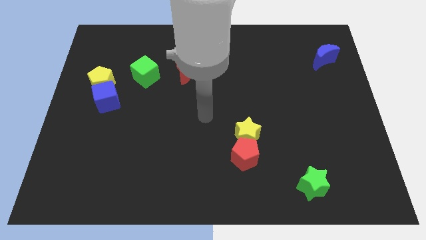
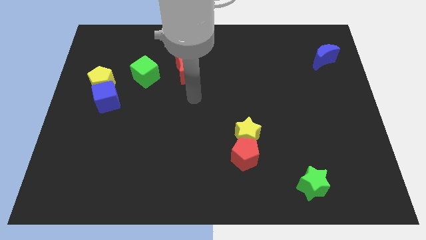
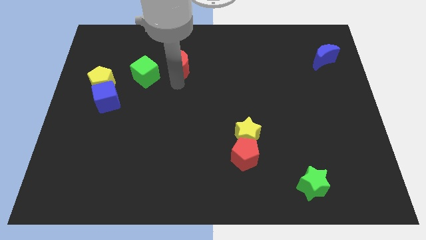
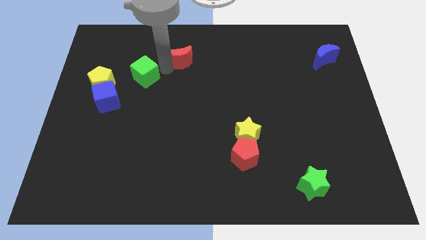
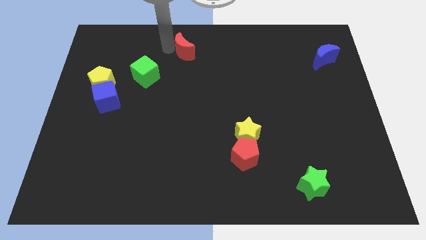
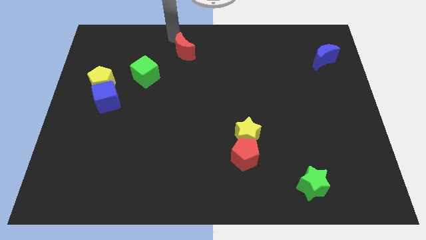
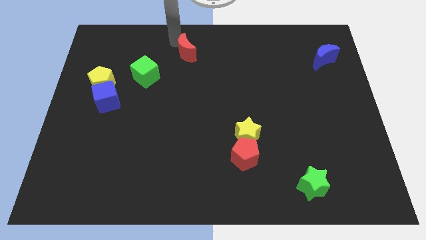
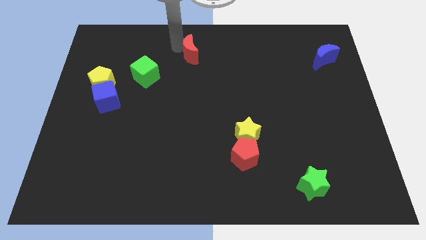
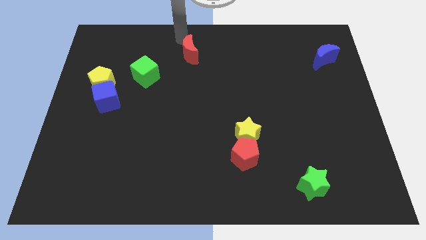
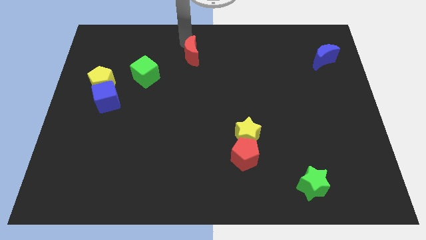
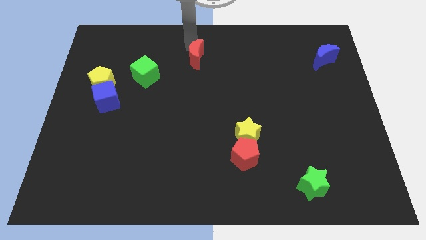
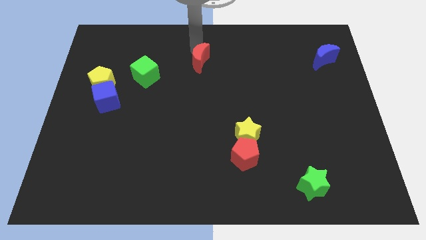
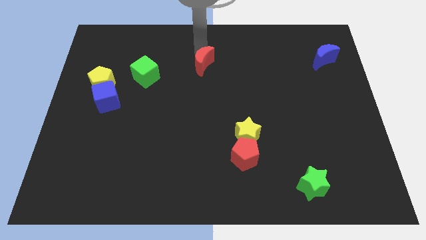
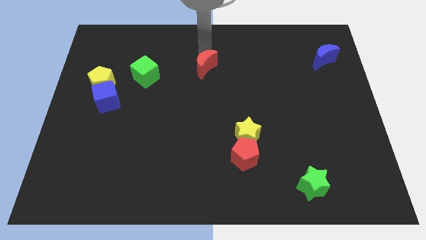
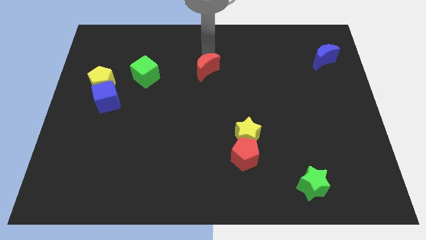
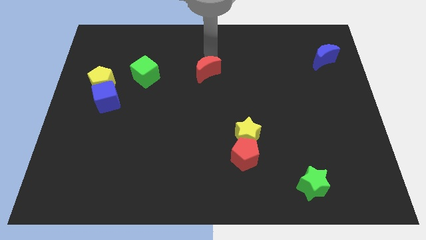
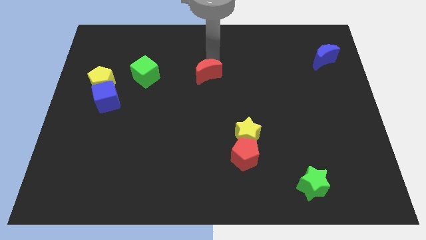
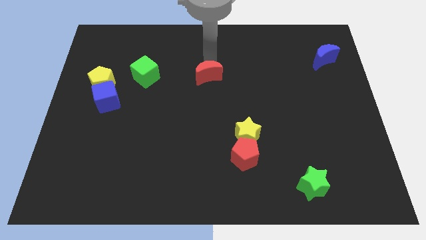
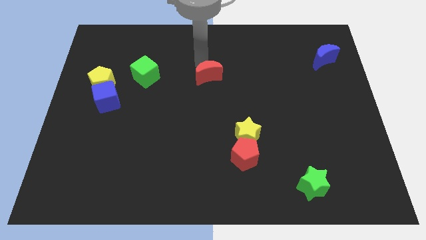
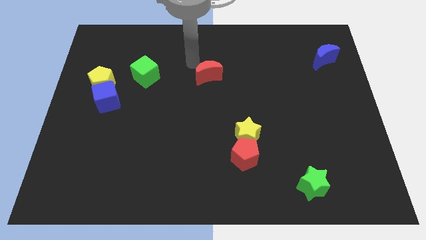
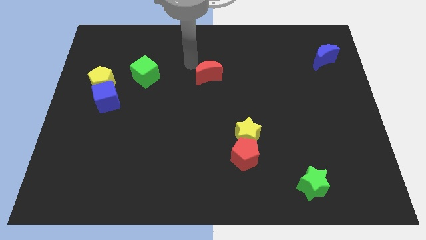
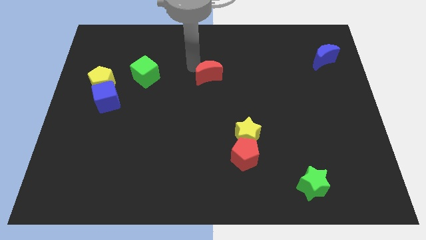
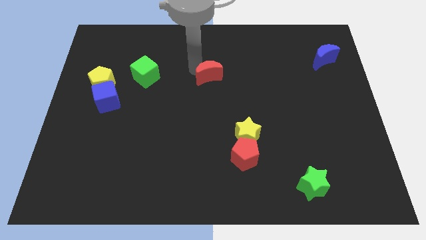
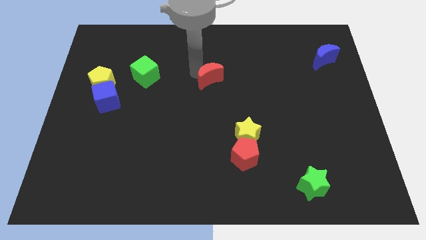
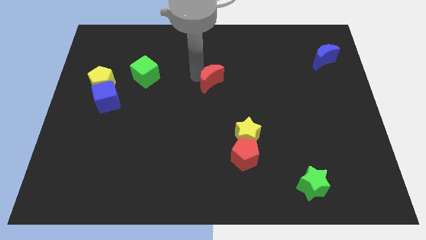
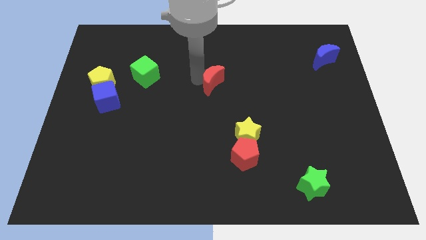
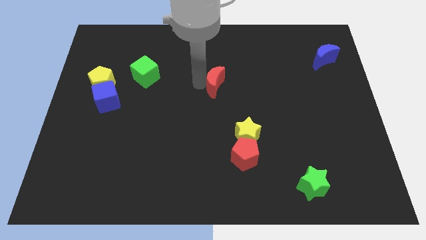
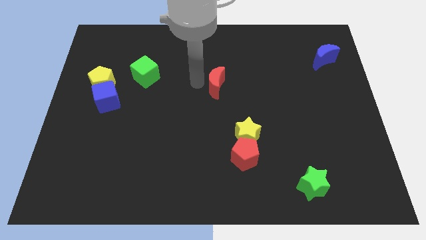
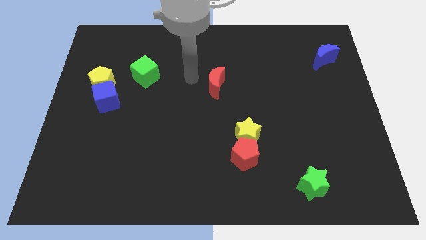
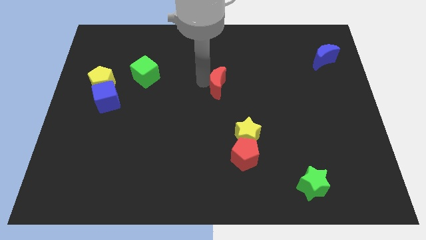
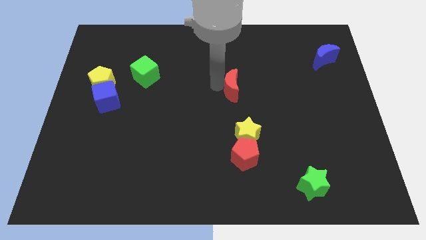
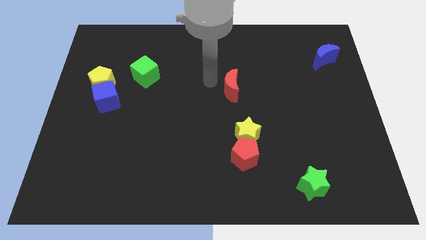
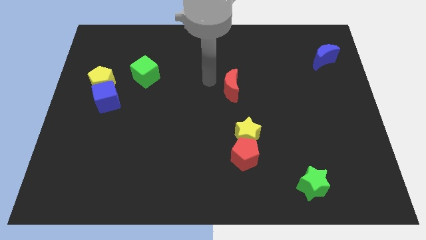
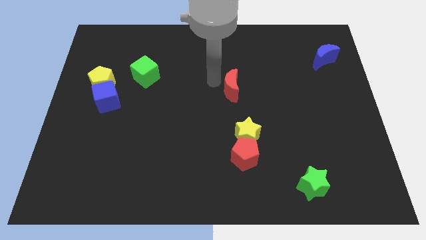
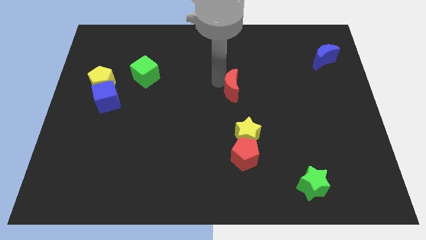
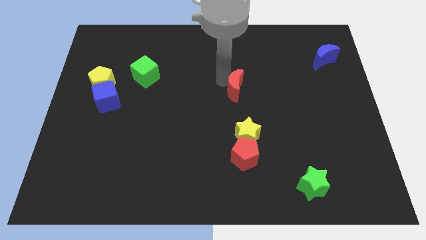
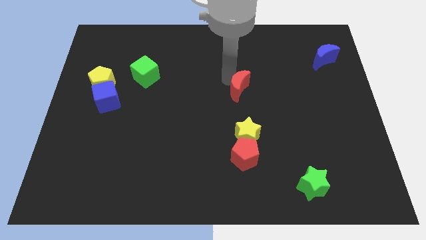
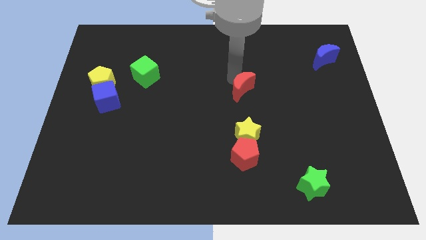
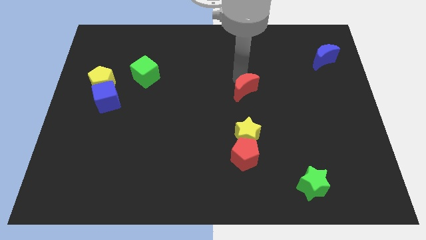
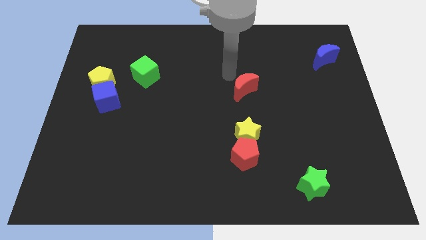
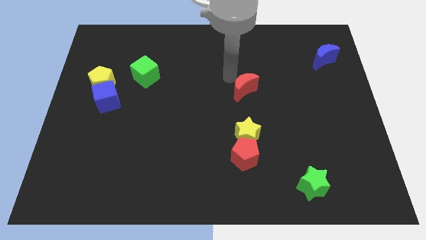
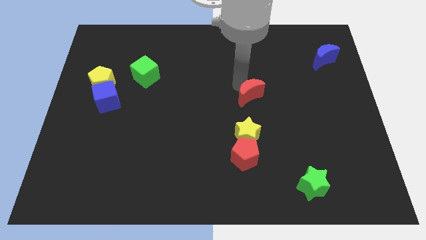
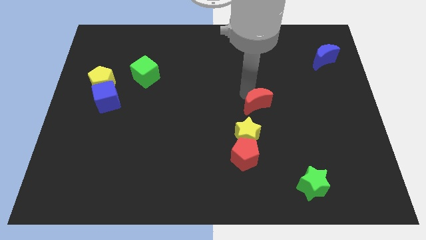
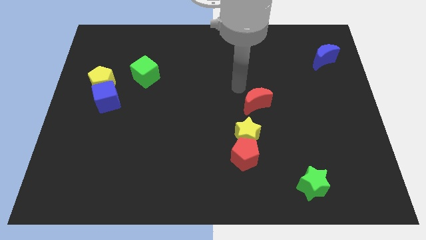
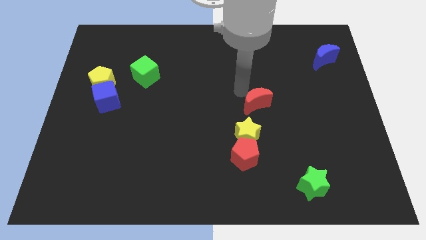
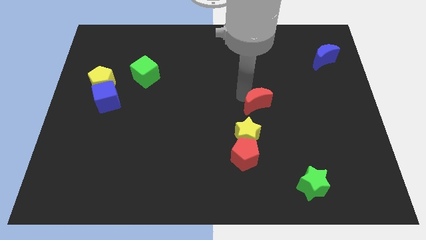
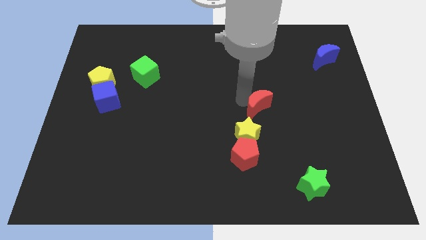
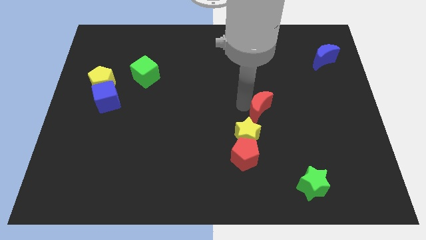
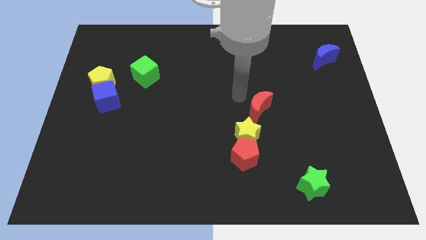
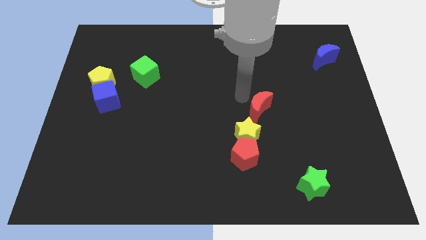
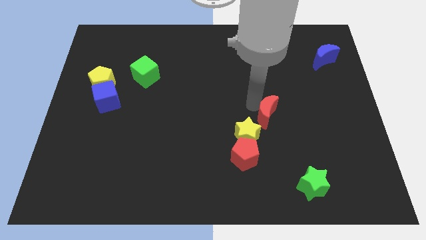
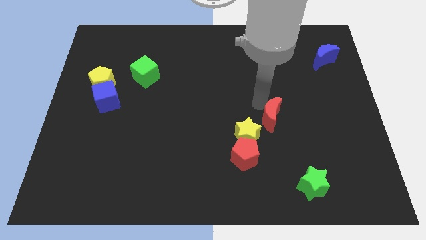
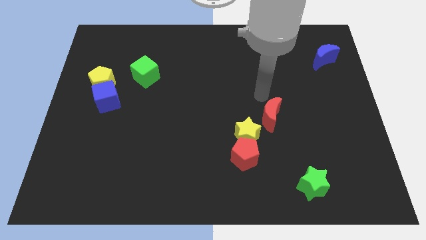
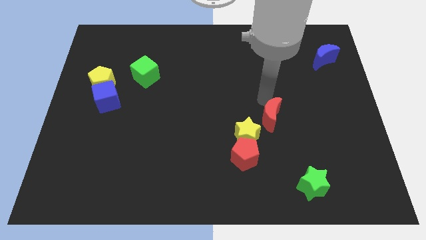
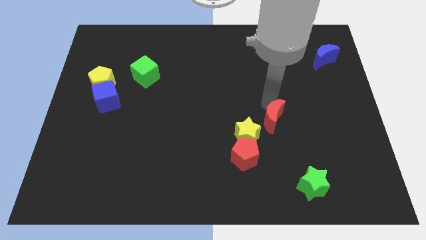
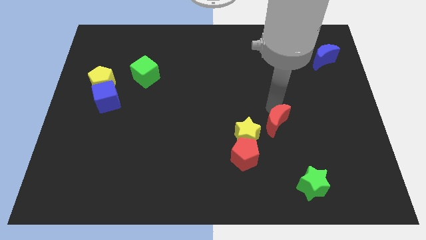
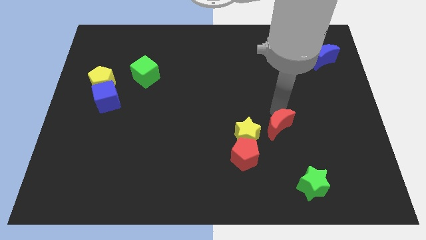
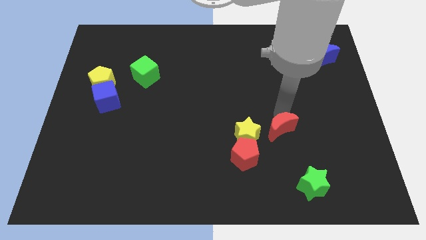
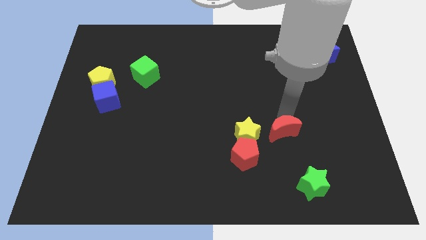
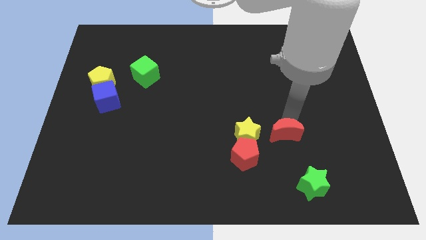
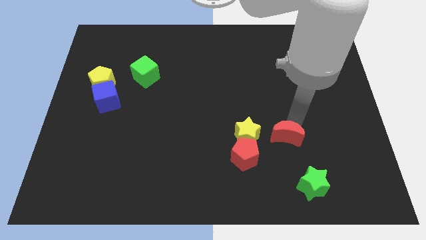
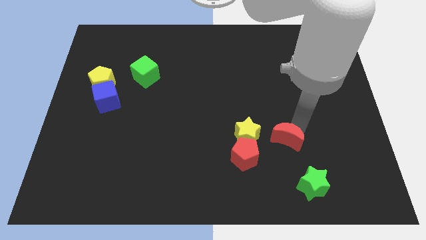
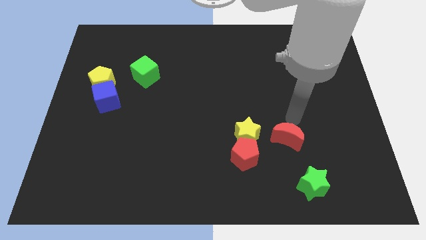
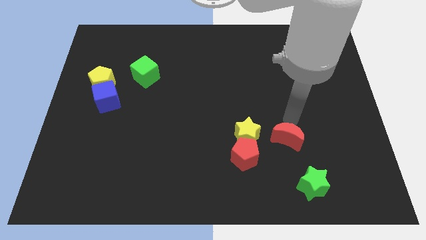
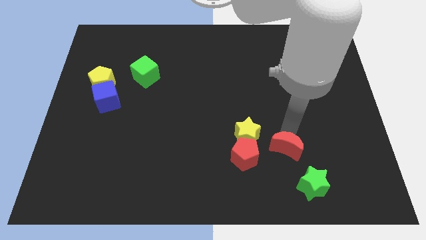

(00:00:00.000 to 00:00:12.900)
move the red moon diagonally up and to the left of the green star
